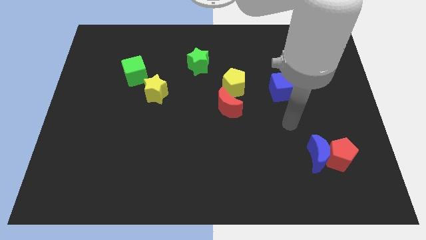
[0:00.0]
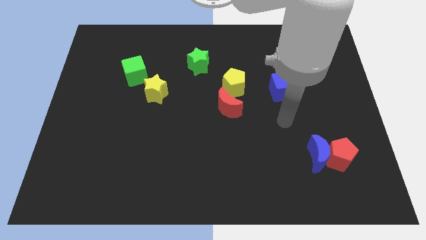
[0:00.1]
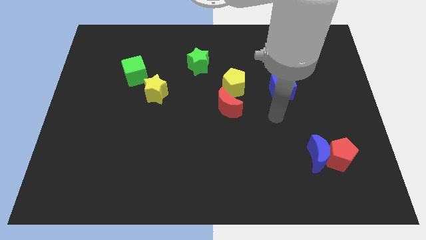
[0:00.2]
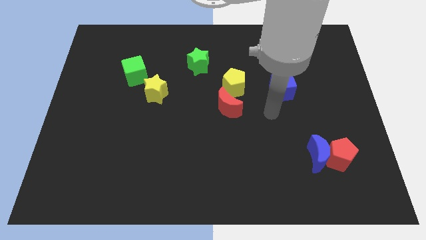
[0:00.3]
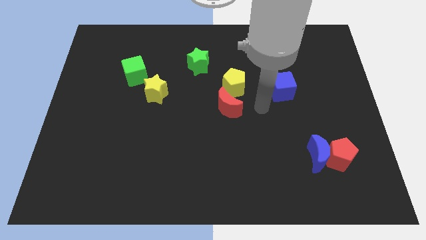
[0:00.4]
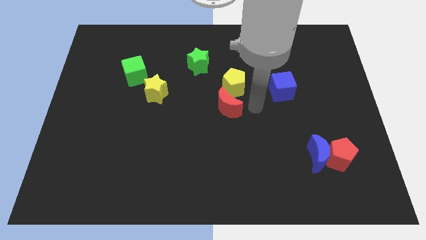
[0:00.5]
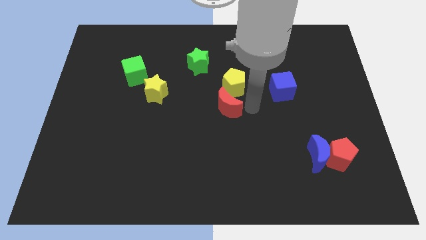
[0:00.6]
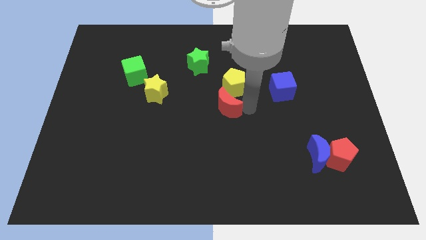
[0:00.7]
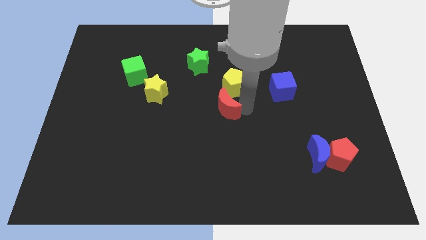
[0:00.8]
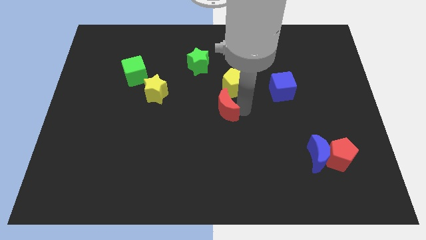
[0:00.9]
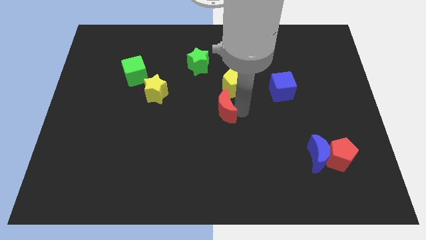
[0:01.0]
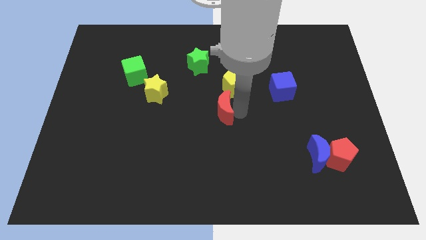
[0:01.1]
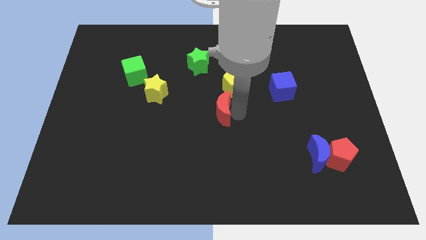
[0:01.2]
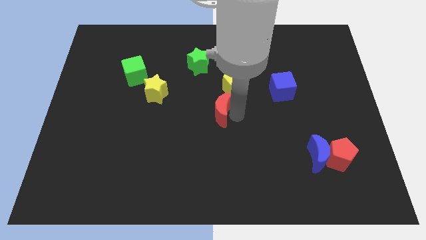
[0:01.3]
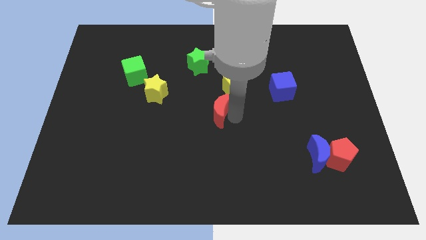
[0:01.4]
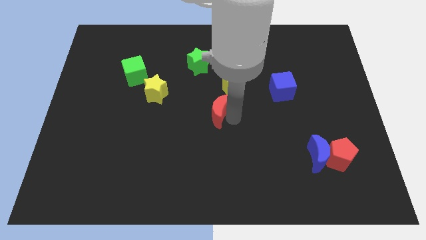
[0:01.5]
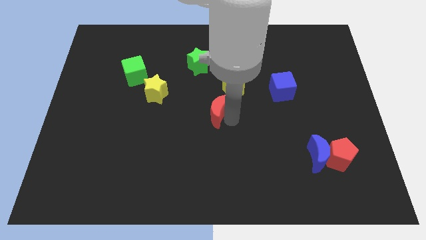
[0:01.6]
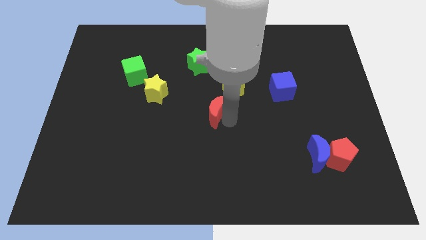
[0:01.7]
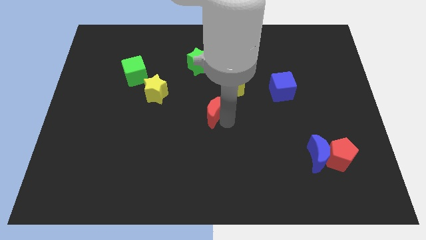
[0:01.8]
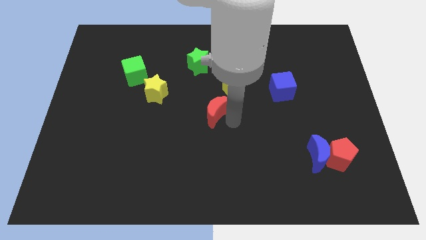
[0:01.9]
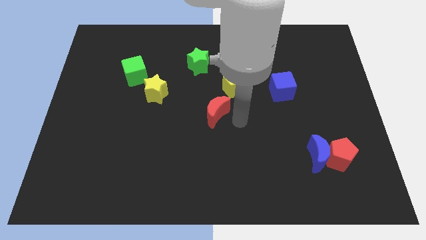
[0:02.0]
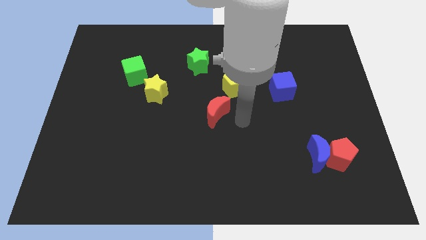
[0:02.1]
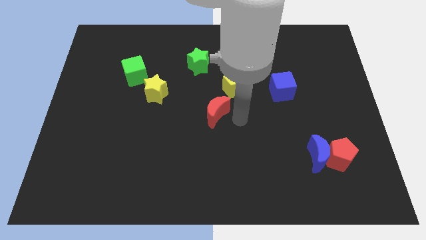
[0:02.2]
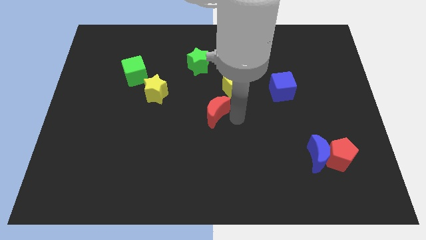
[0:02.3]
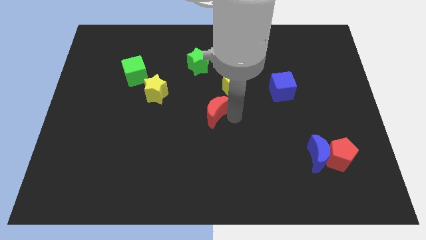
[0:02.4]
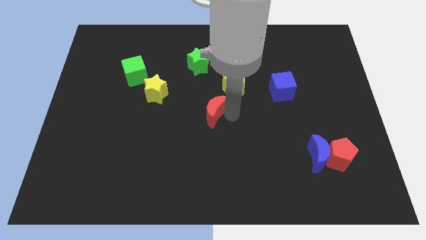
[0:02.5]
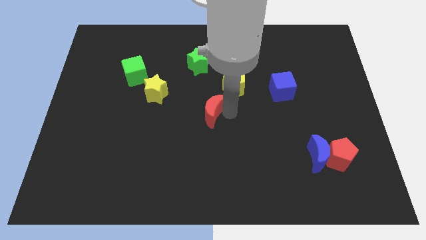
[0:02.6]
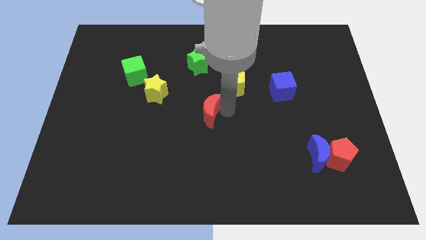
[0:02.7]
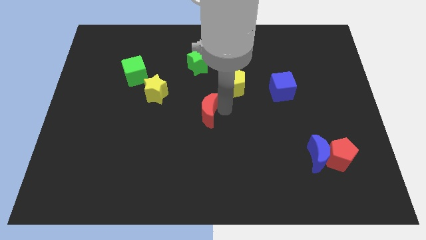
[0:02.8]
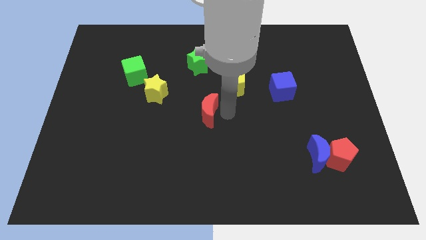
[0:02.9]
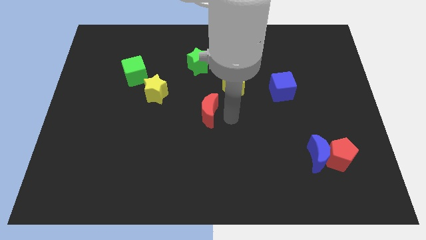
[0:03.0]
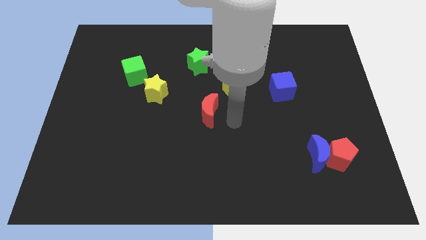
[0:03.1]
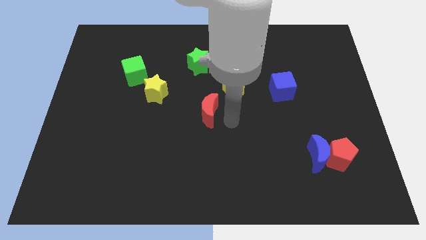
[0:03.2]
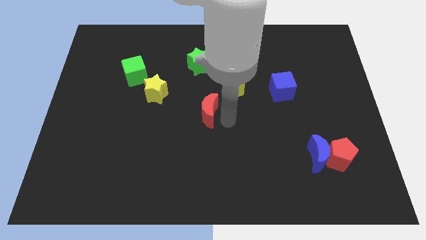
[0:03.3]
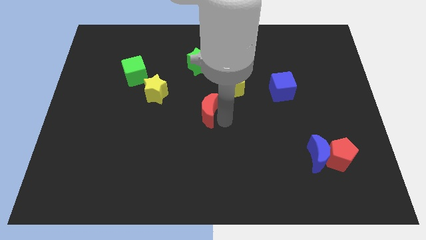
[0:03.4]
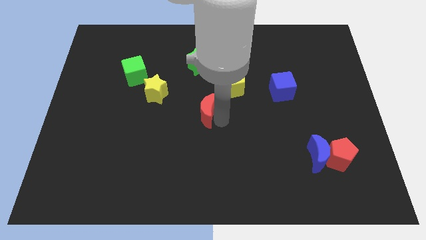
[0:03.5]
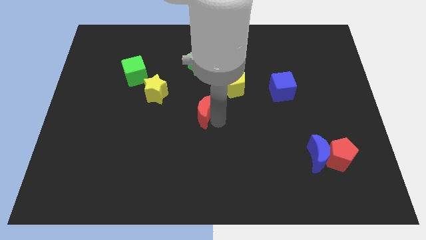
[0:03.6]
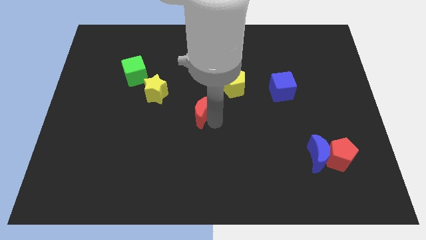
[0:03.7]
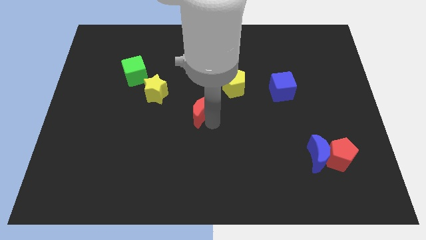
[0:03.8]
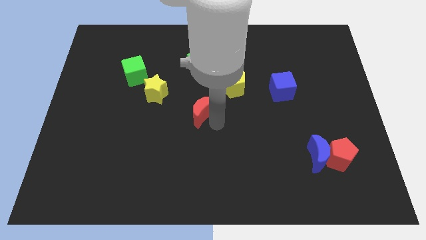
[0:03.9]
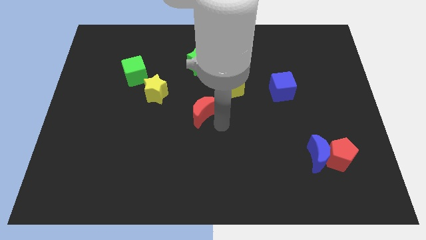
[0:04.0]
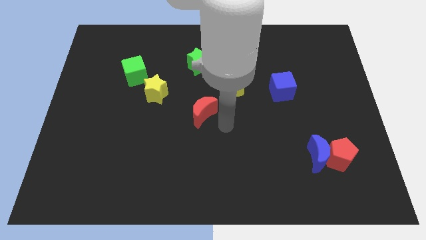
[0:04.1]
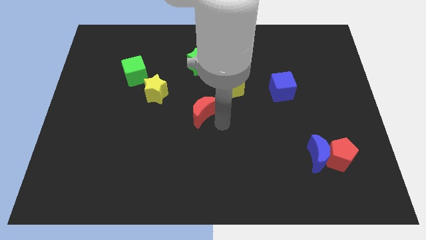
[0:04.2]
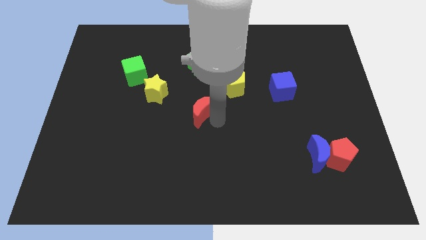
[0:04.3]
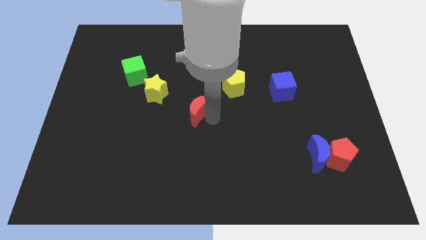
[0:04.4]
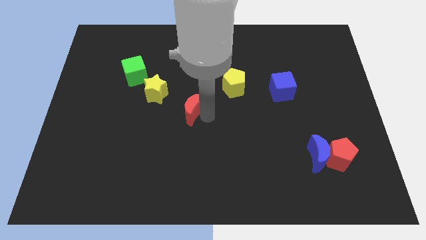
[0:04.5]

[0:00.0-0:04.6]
move the red moon a little to the left

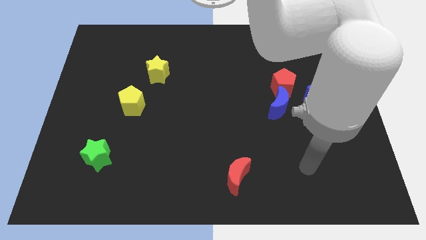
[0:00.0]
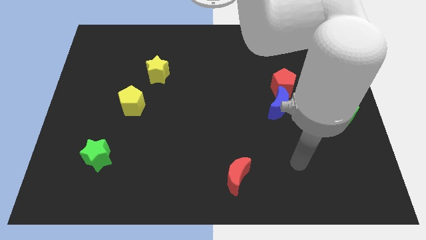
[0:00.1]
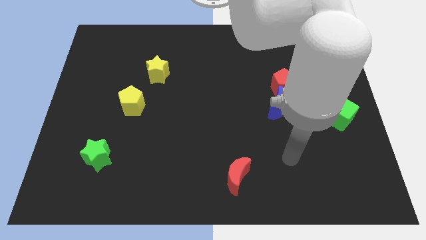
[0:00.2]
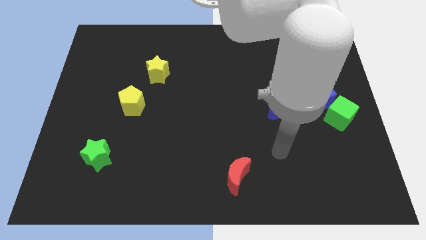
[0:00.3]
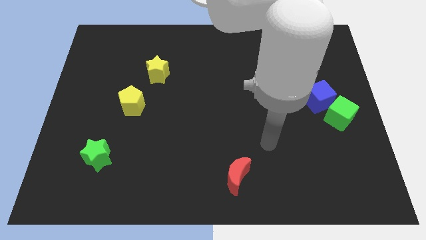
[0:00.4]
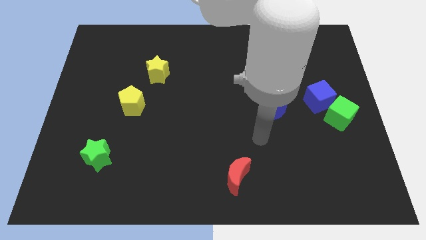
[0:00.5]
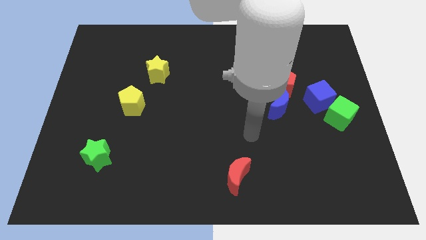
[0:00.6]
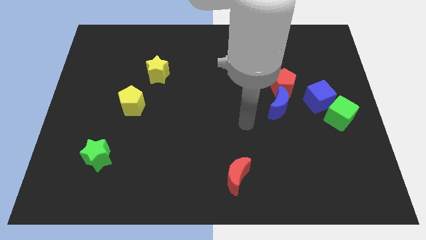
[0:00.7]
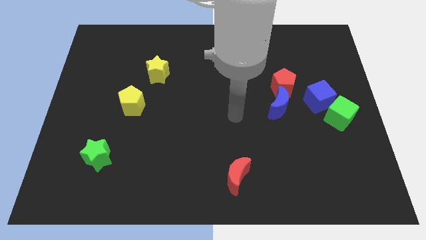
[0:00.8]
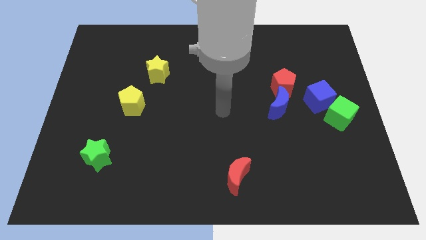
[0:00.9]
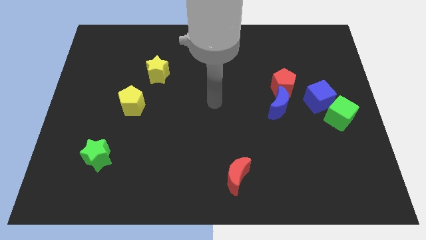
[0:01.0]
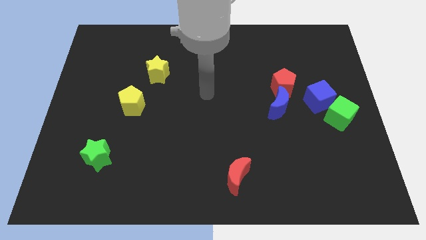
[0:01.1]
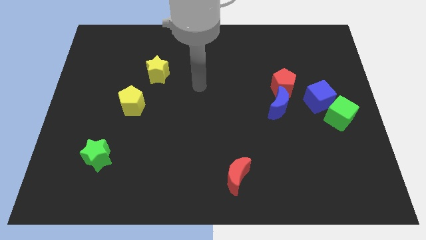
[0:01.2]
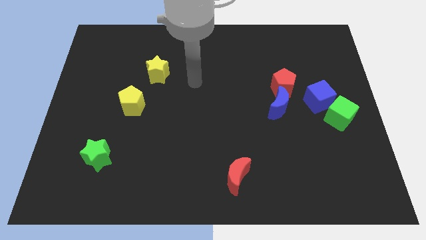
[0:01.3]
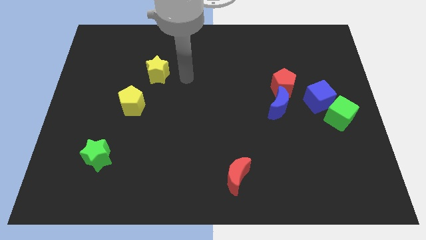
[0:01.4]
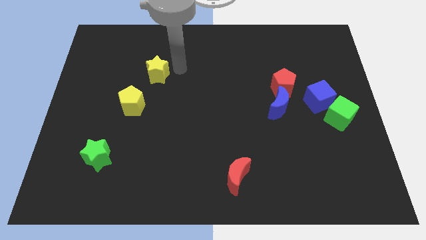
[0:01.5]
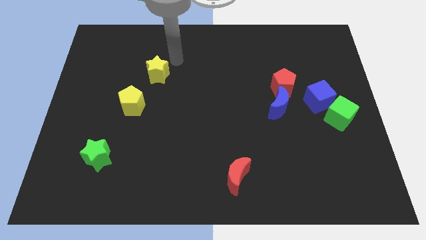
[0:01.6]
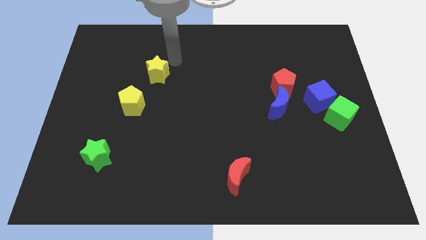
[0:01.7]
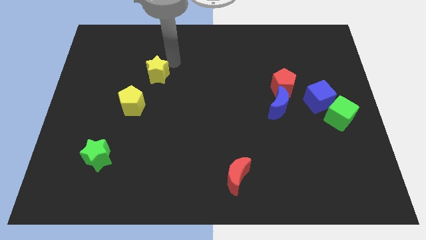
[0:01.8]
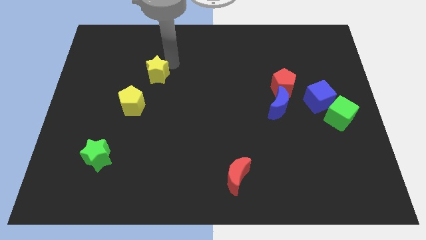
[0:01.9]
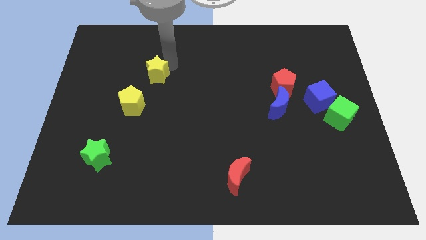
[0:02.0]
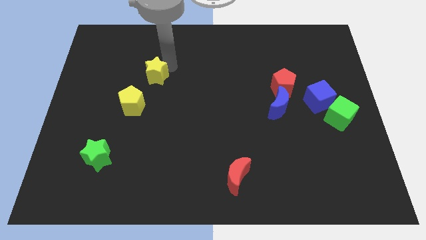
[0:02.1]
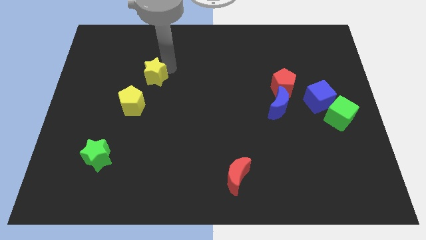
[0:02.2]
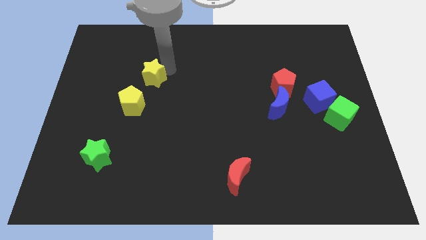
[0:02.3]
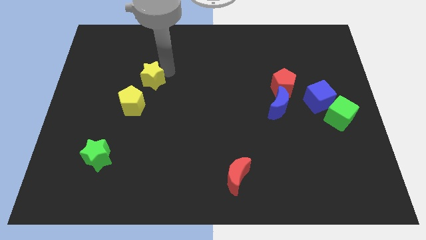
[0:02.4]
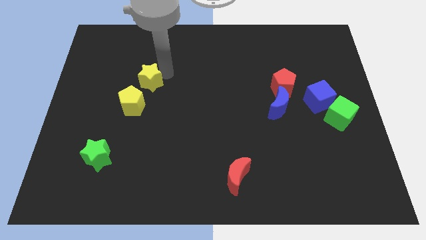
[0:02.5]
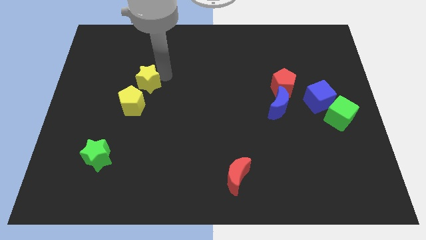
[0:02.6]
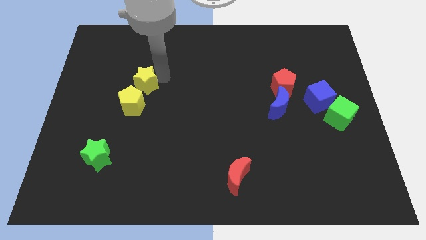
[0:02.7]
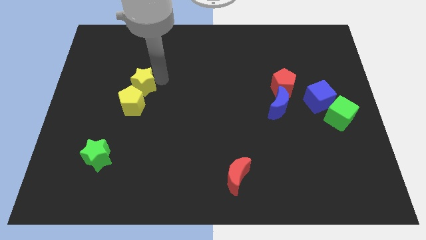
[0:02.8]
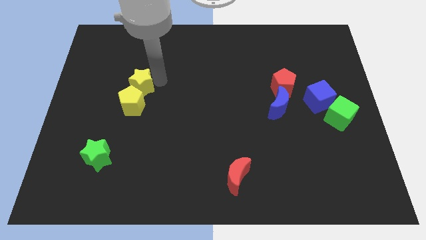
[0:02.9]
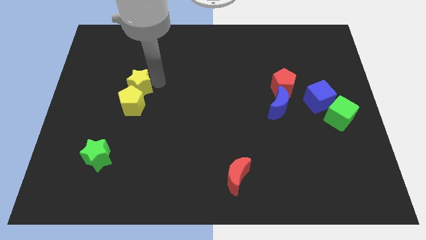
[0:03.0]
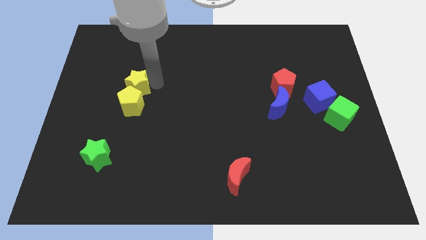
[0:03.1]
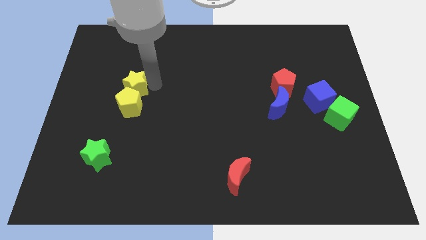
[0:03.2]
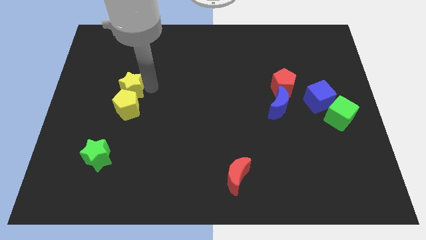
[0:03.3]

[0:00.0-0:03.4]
push the yellow star down and left a bit
